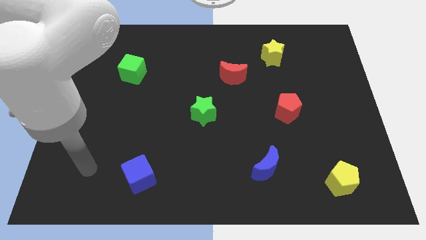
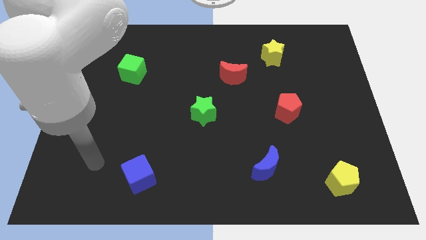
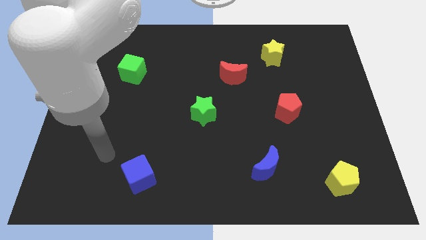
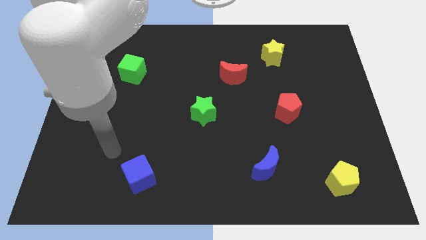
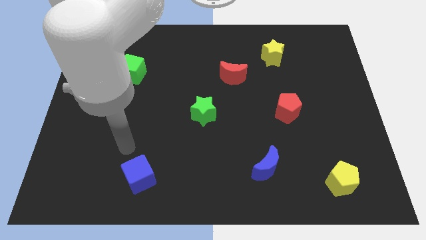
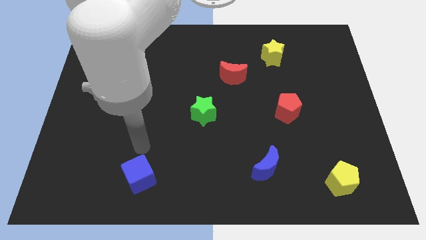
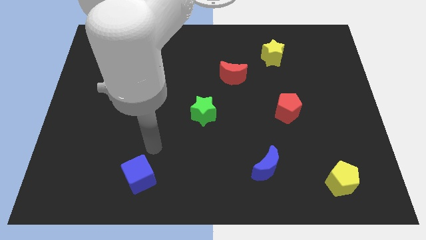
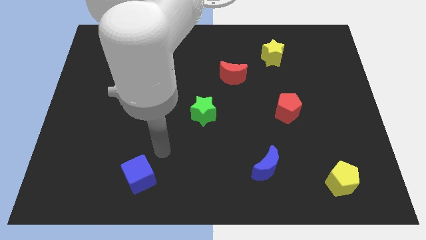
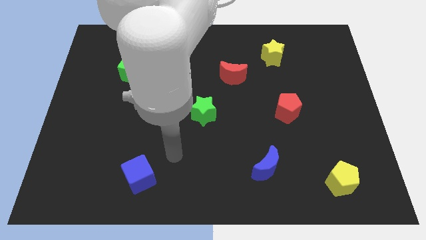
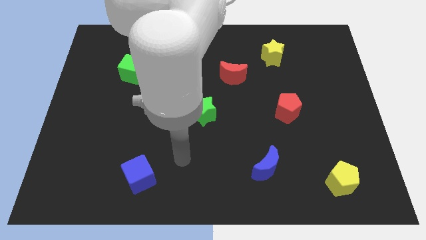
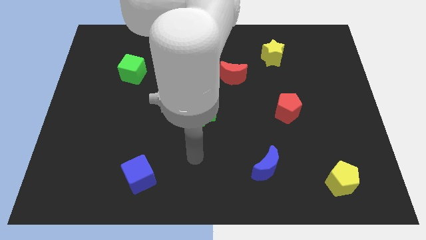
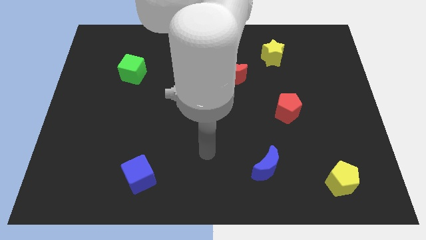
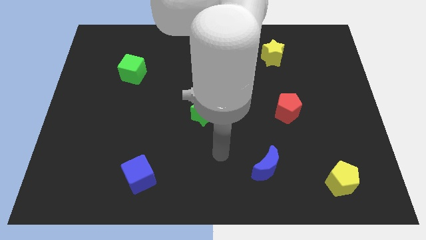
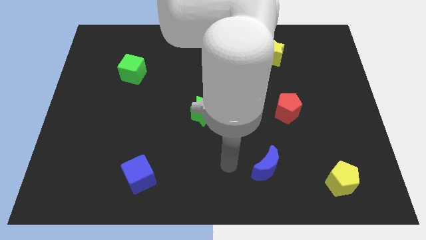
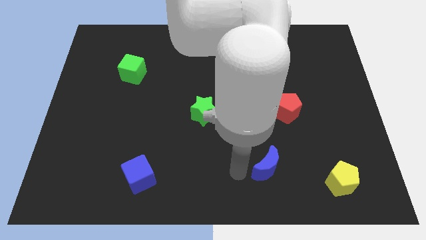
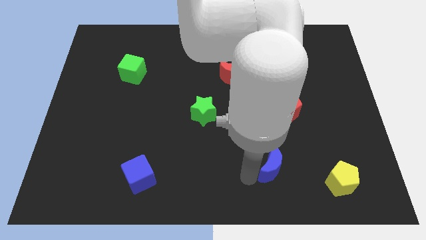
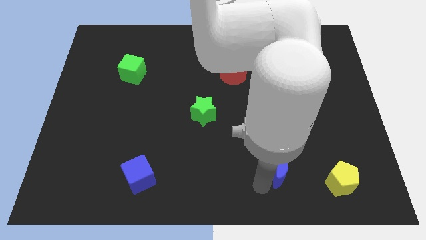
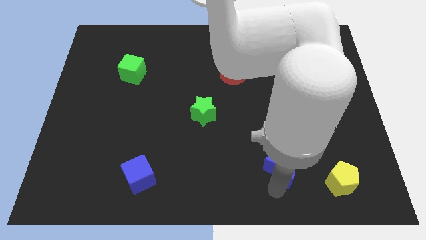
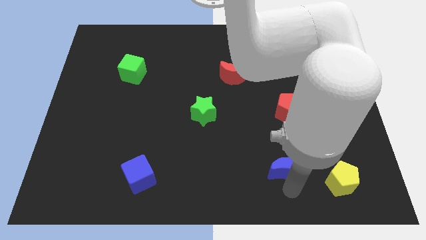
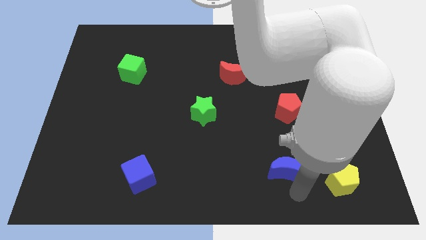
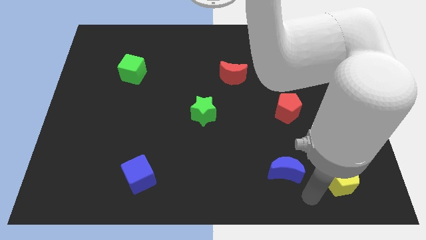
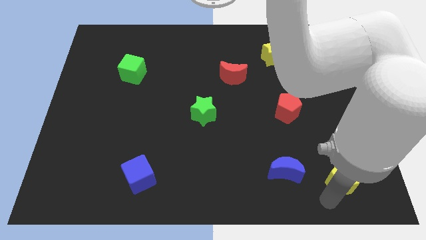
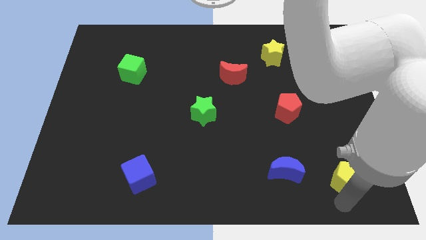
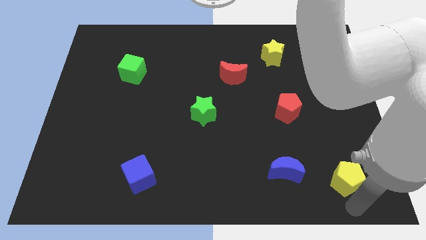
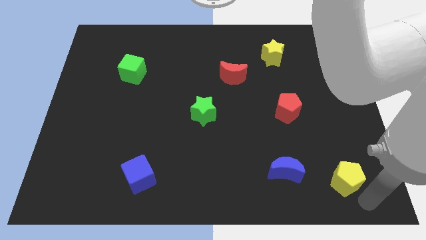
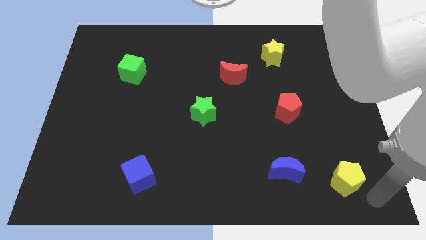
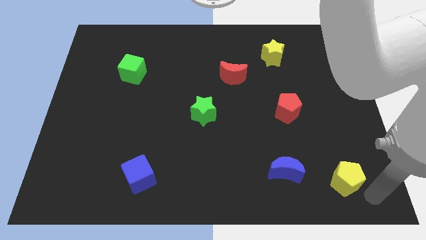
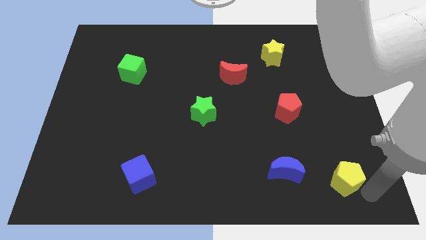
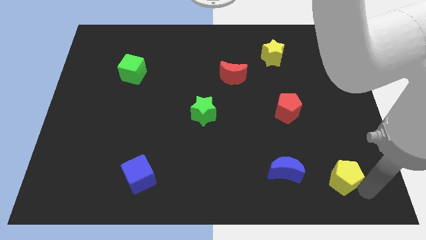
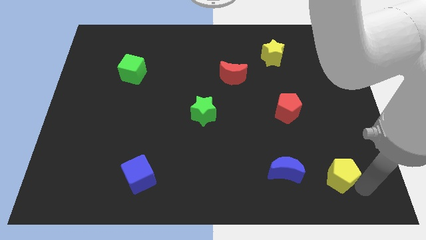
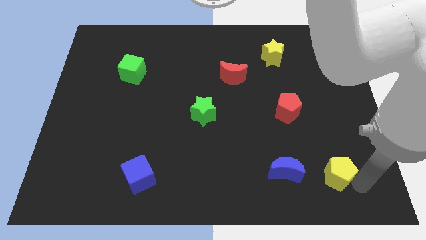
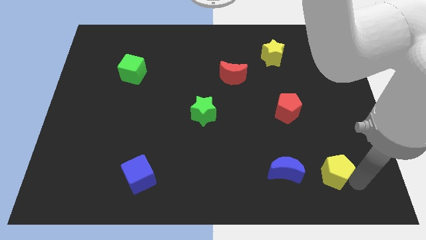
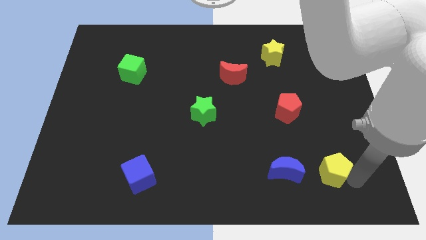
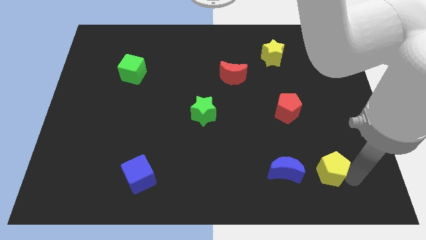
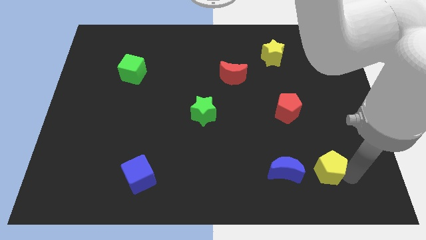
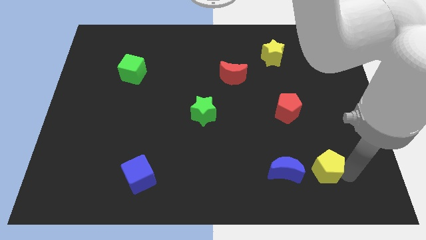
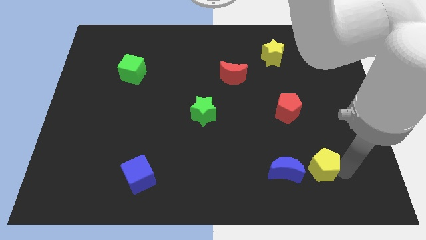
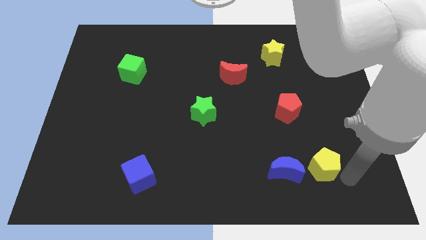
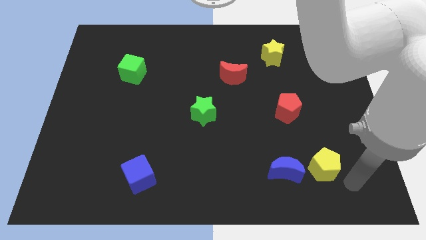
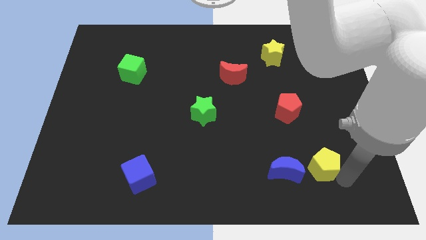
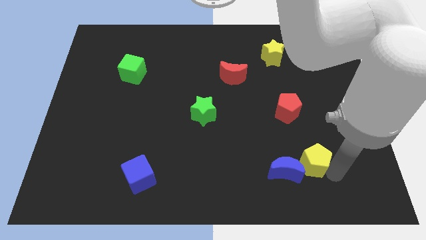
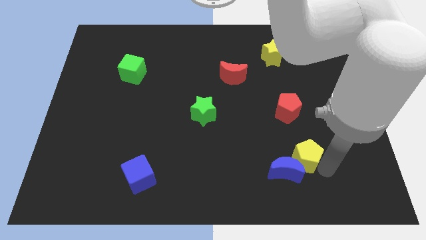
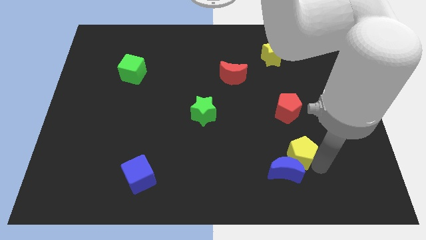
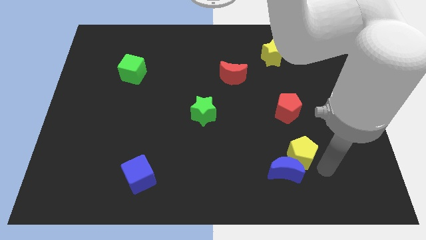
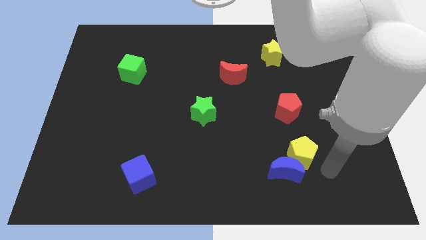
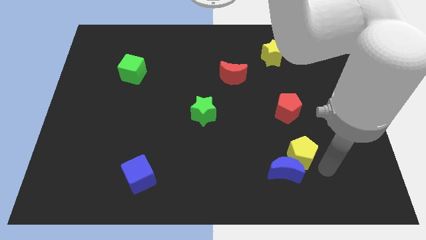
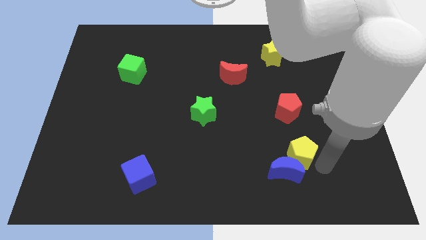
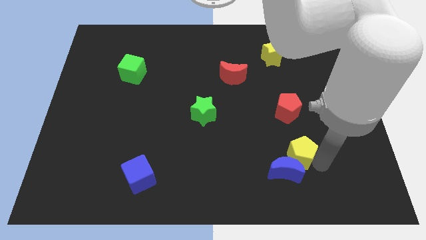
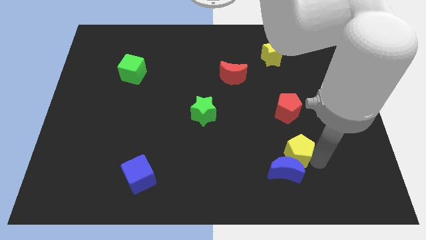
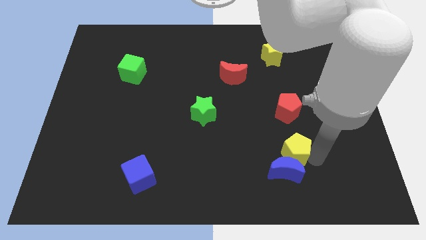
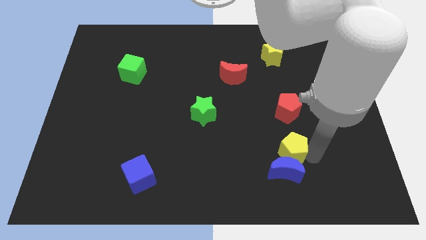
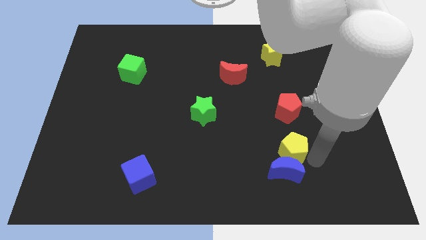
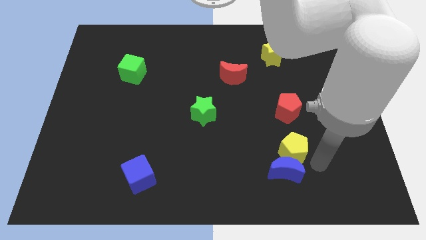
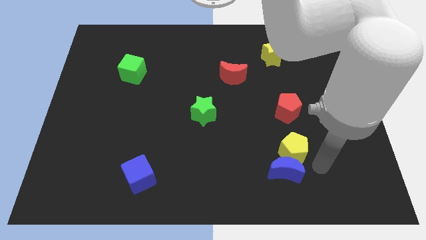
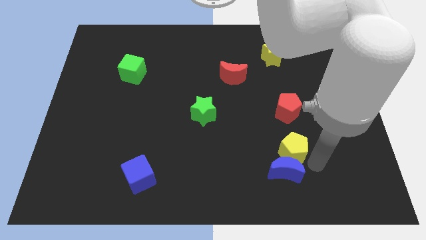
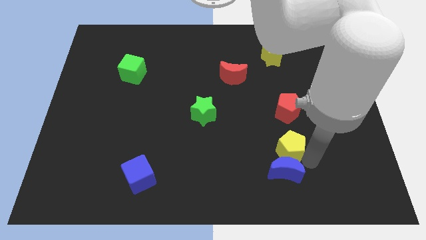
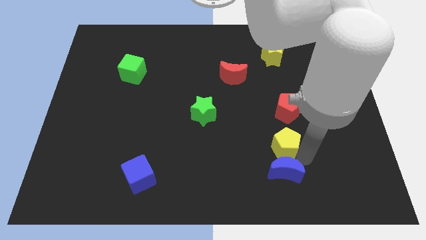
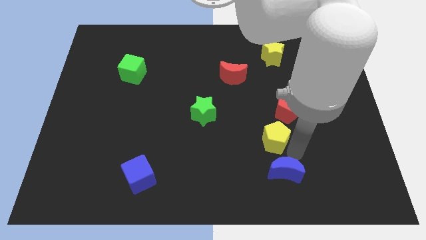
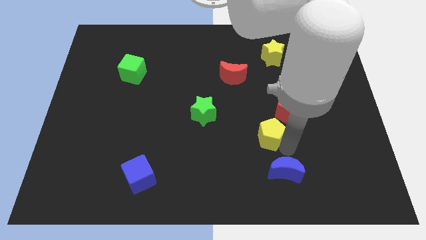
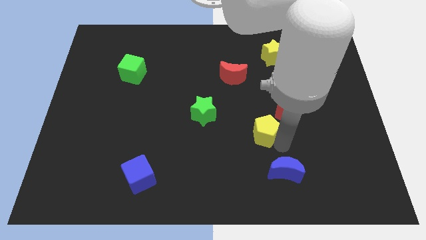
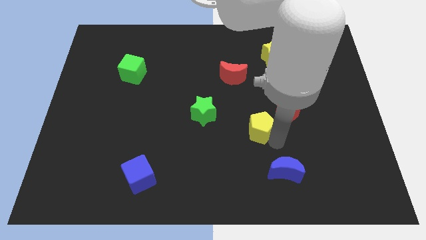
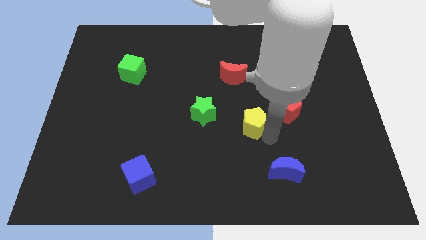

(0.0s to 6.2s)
slide the yellow pentagon left of the red pentagon
